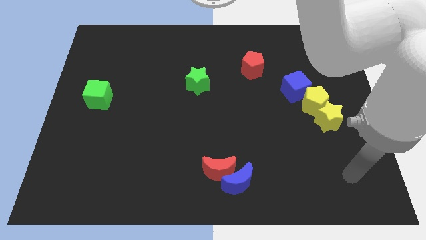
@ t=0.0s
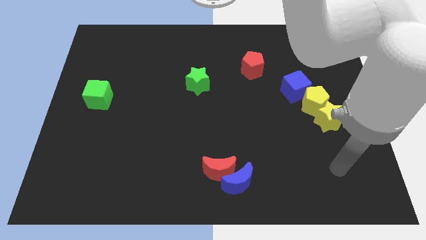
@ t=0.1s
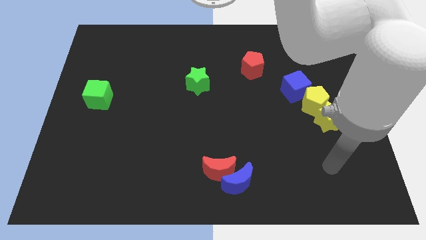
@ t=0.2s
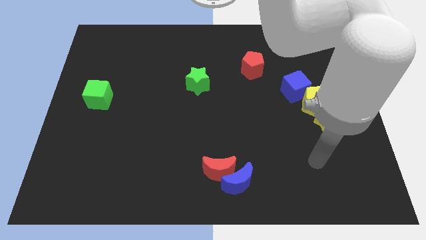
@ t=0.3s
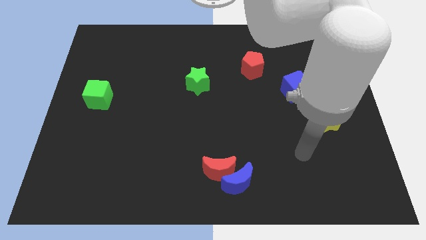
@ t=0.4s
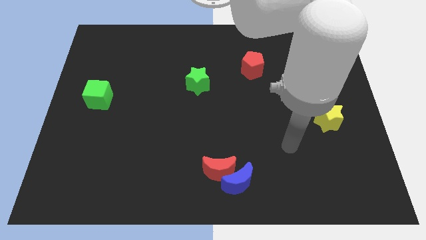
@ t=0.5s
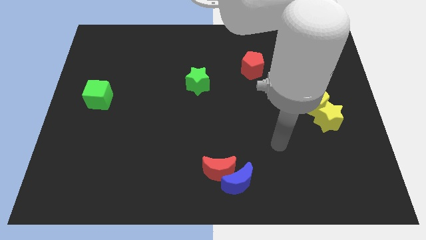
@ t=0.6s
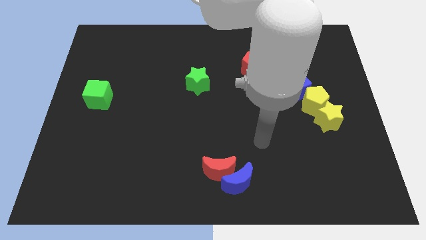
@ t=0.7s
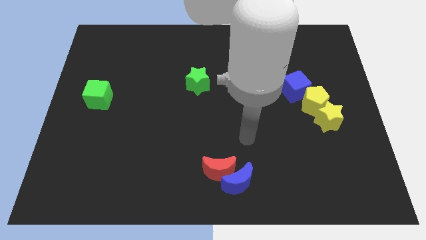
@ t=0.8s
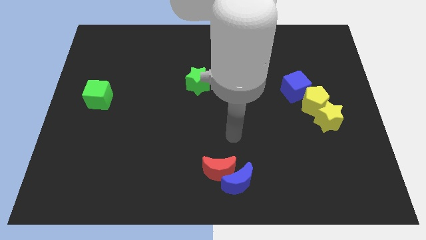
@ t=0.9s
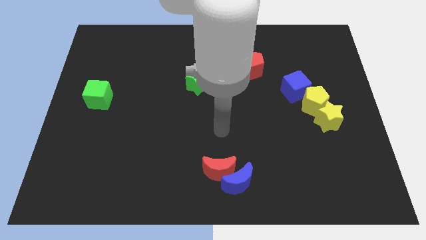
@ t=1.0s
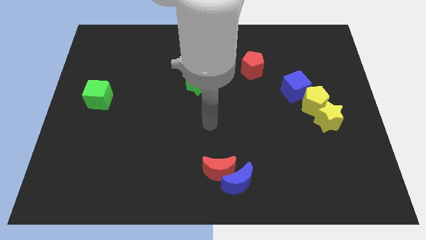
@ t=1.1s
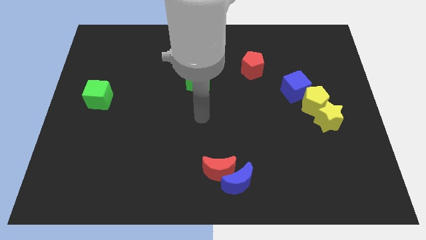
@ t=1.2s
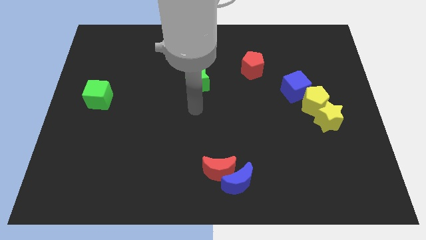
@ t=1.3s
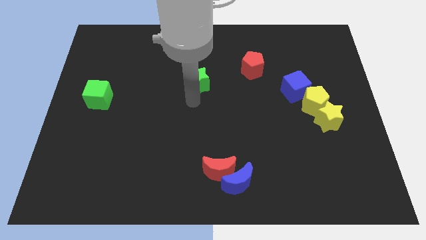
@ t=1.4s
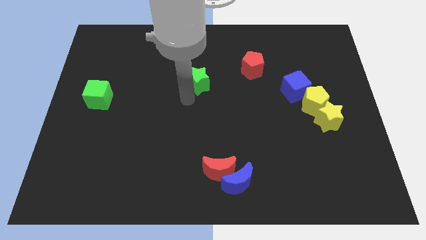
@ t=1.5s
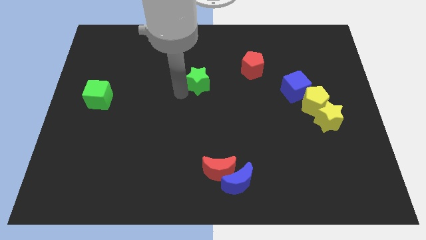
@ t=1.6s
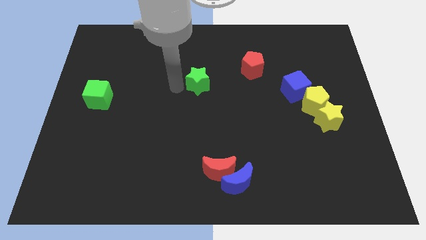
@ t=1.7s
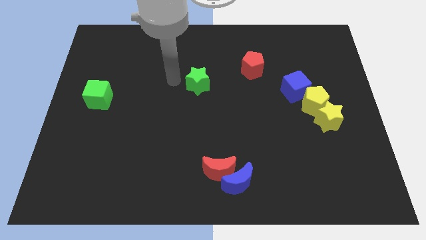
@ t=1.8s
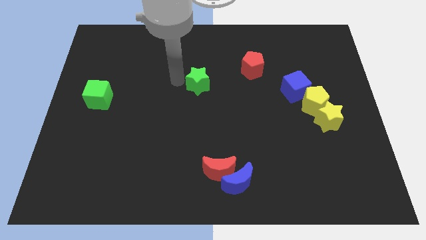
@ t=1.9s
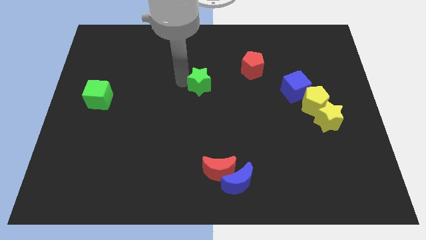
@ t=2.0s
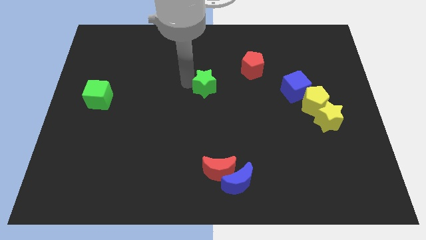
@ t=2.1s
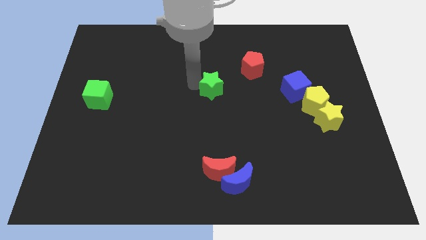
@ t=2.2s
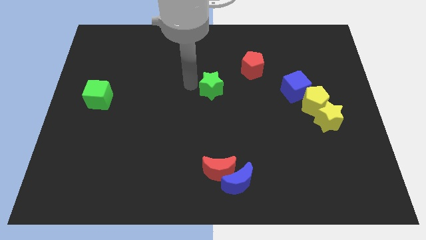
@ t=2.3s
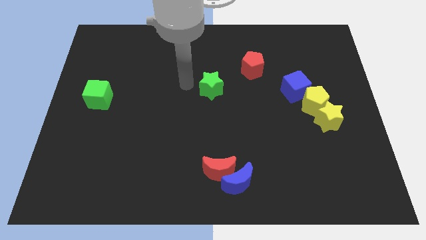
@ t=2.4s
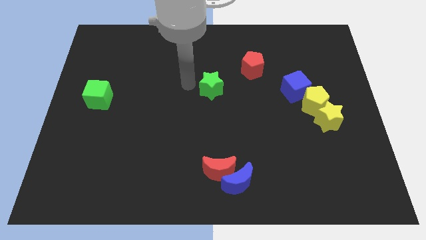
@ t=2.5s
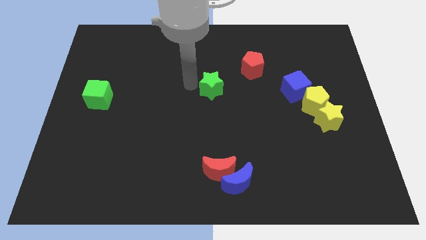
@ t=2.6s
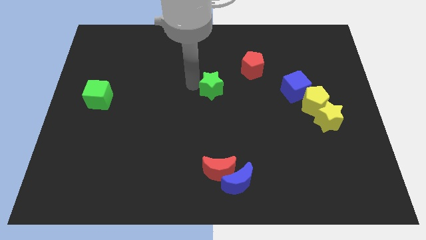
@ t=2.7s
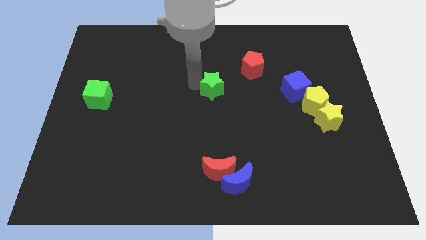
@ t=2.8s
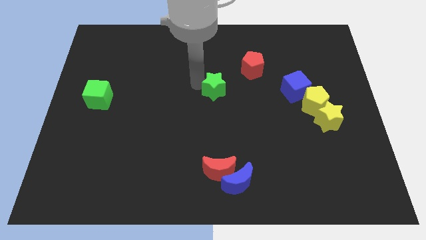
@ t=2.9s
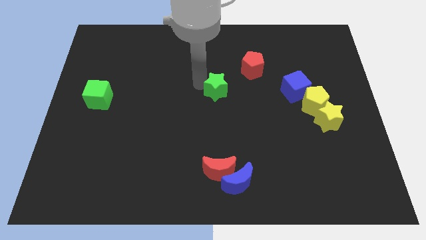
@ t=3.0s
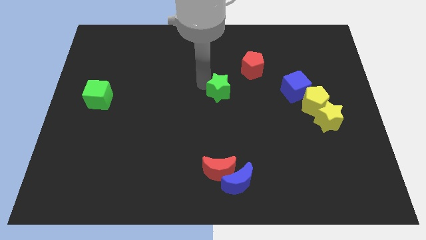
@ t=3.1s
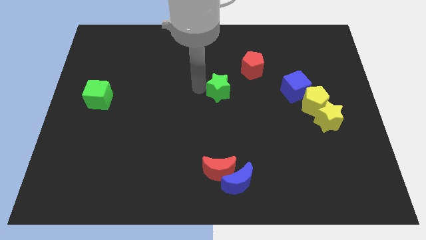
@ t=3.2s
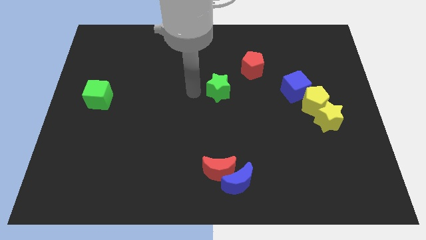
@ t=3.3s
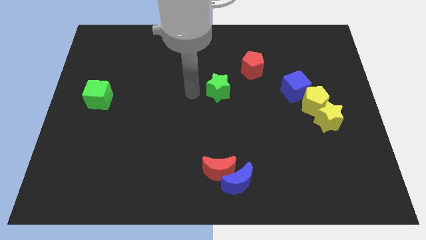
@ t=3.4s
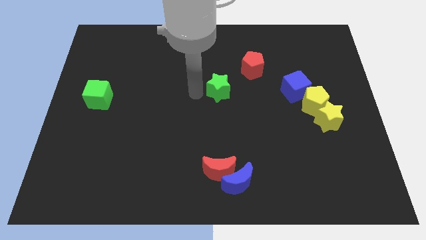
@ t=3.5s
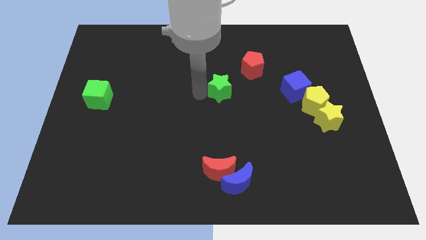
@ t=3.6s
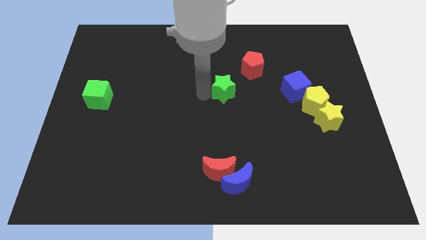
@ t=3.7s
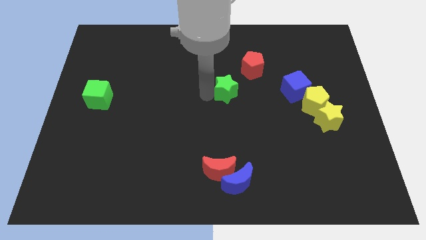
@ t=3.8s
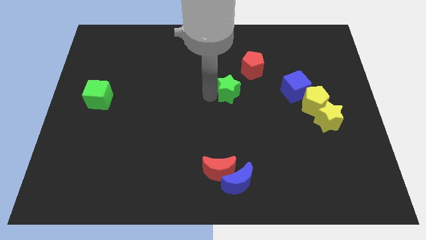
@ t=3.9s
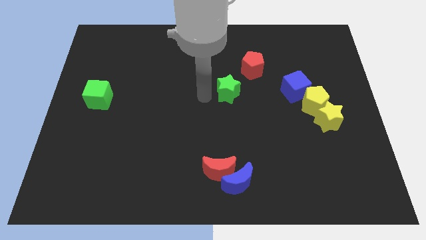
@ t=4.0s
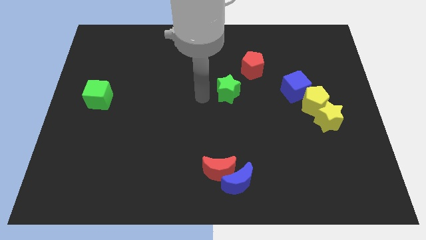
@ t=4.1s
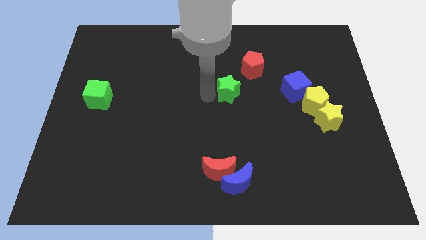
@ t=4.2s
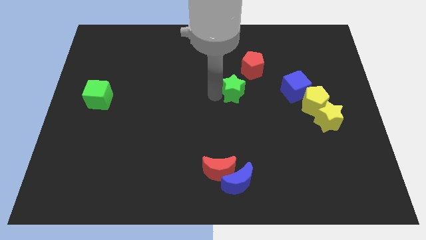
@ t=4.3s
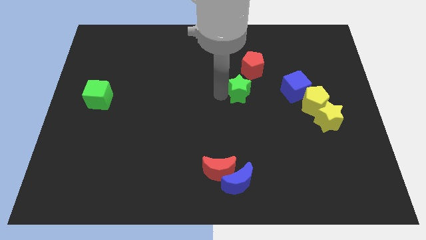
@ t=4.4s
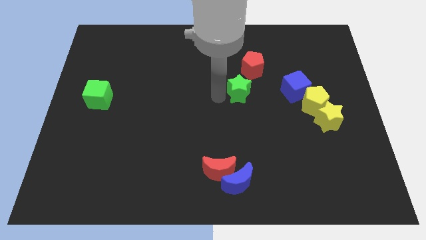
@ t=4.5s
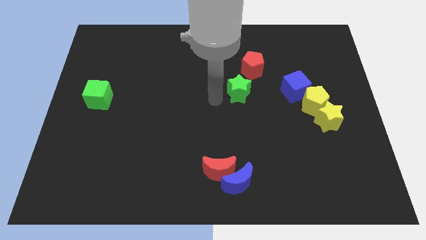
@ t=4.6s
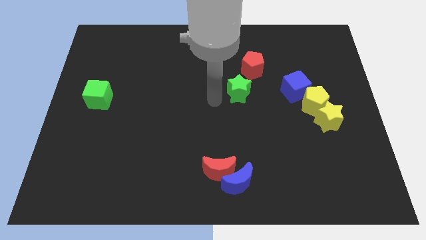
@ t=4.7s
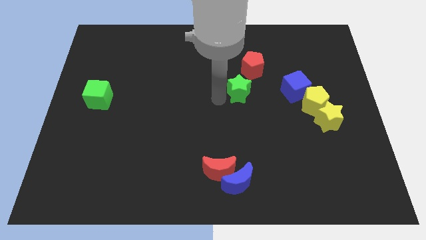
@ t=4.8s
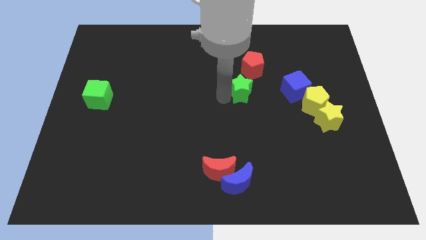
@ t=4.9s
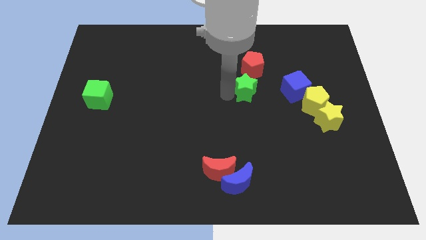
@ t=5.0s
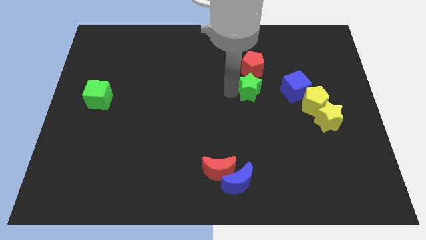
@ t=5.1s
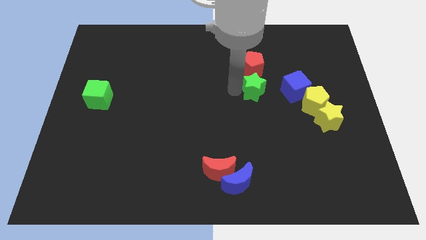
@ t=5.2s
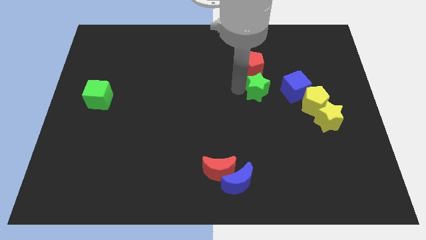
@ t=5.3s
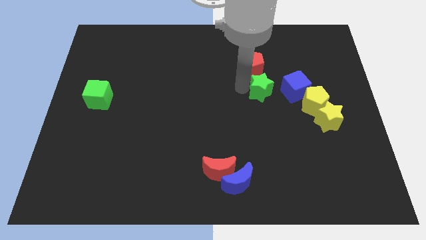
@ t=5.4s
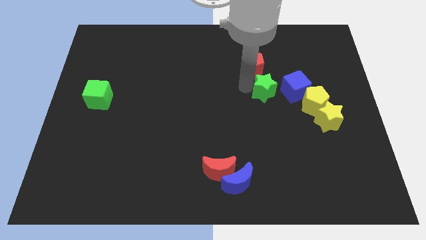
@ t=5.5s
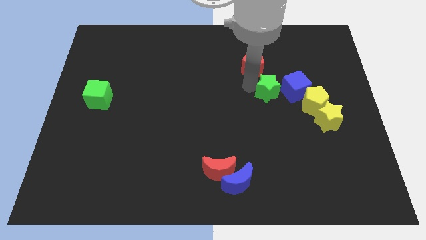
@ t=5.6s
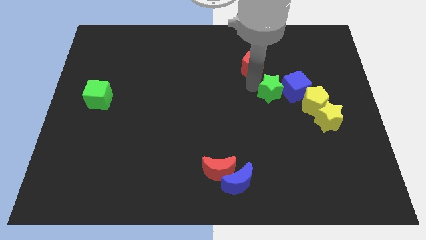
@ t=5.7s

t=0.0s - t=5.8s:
slide the green star close to the blue cube

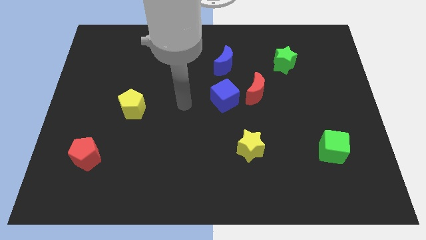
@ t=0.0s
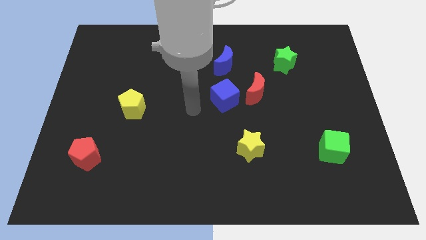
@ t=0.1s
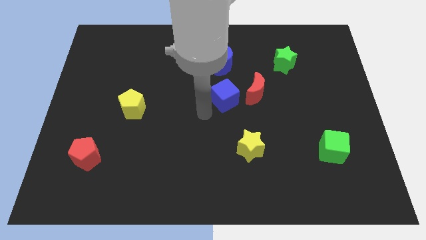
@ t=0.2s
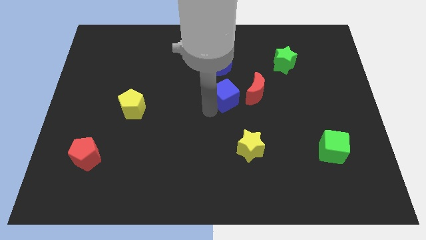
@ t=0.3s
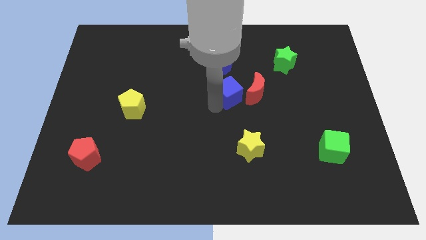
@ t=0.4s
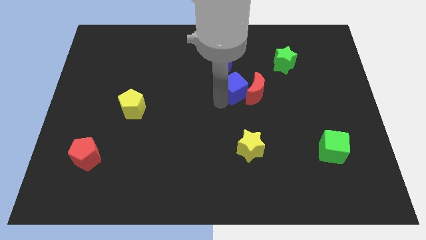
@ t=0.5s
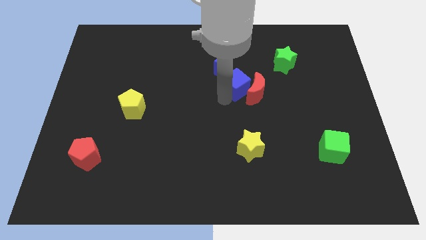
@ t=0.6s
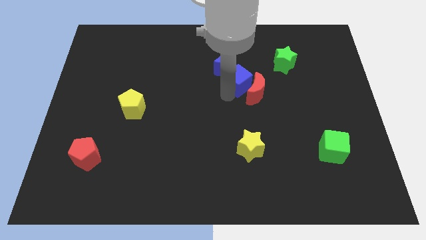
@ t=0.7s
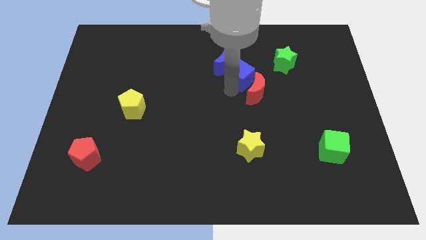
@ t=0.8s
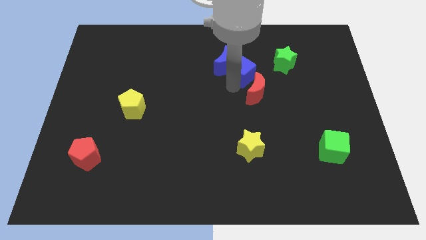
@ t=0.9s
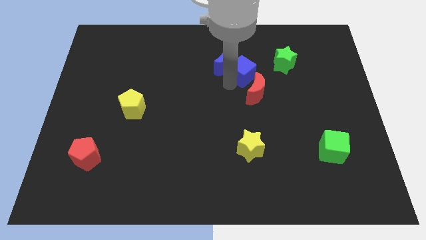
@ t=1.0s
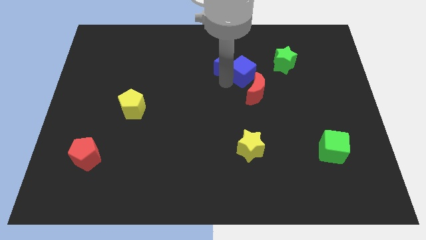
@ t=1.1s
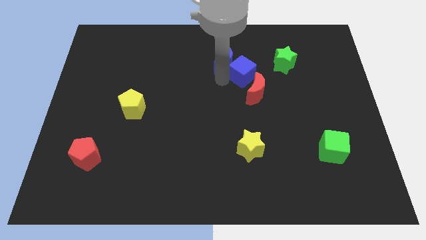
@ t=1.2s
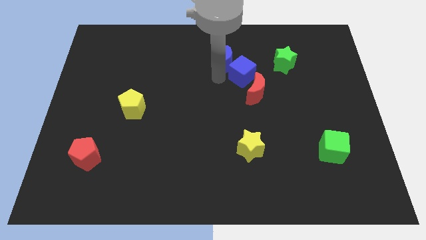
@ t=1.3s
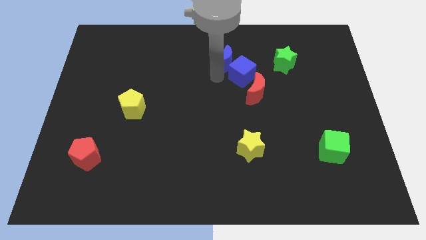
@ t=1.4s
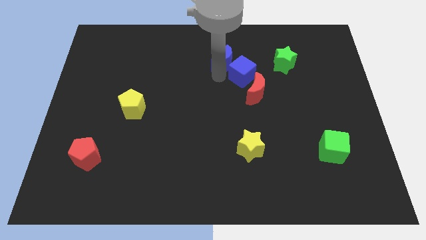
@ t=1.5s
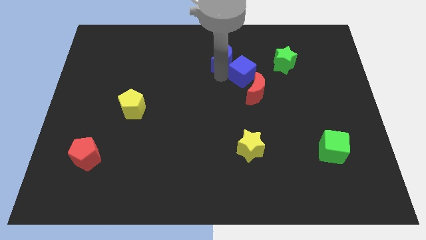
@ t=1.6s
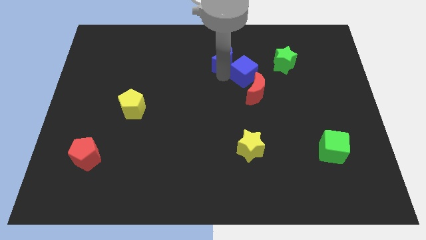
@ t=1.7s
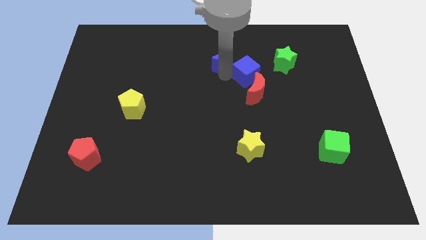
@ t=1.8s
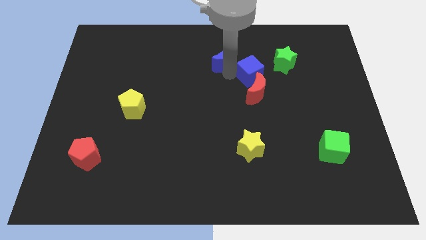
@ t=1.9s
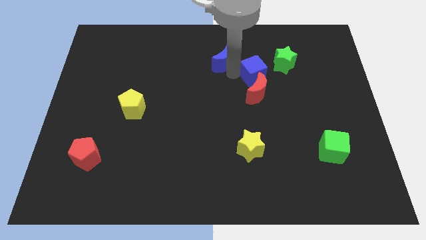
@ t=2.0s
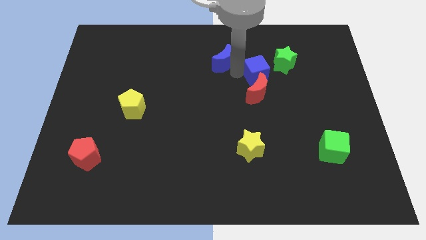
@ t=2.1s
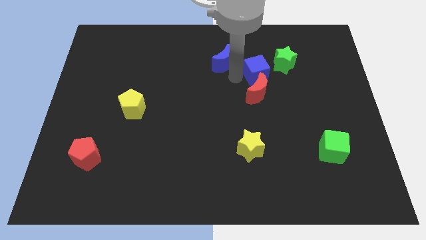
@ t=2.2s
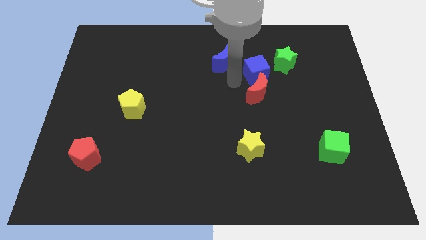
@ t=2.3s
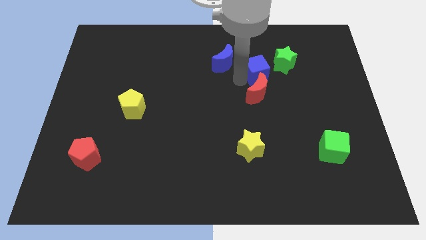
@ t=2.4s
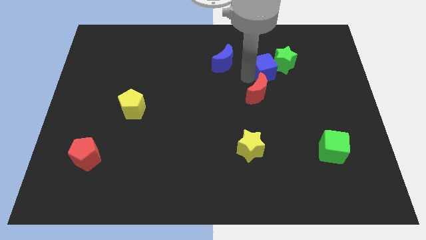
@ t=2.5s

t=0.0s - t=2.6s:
slide the blue cube towards the green star
